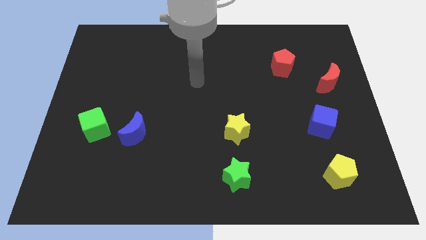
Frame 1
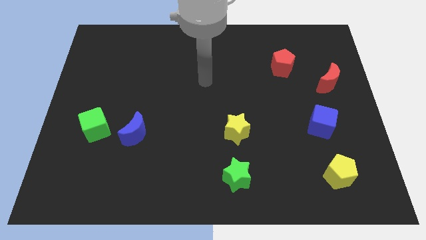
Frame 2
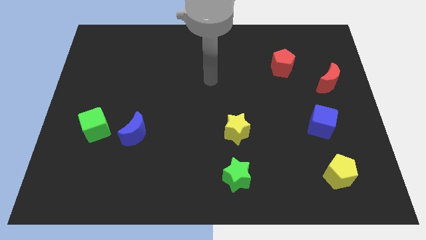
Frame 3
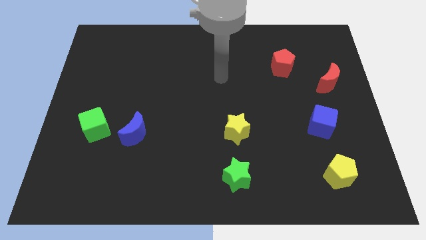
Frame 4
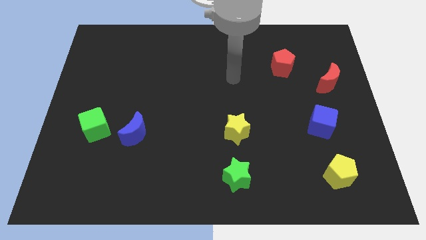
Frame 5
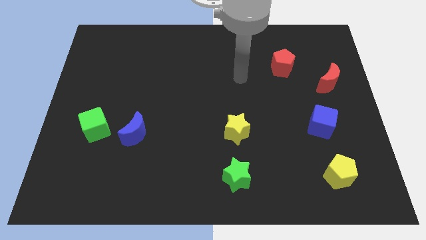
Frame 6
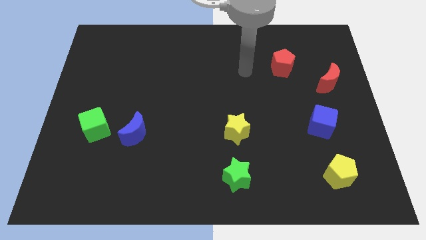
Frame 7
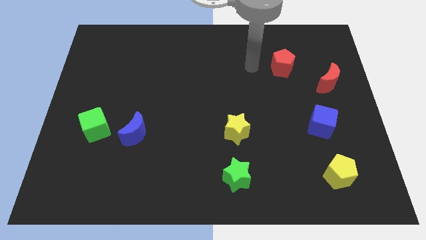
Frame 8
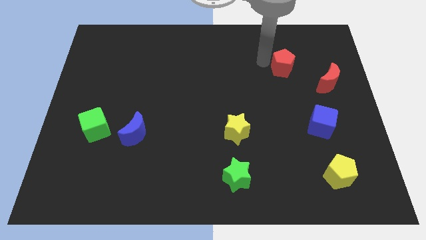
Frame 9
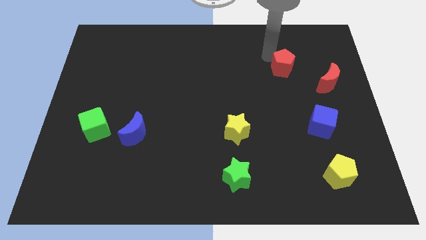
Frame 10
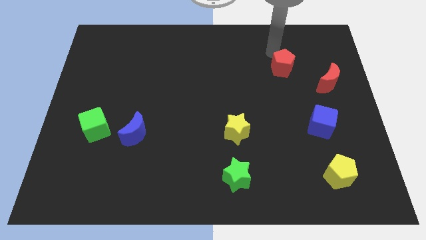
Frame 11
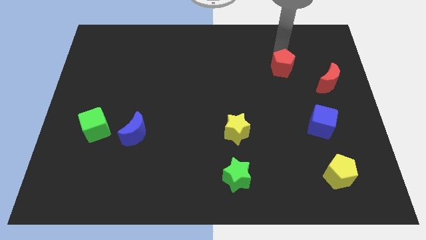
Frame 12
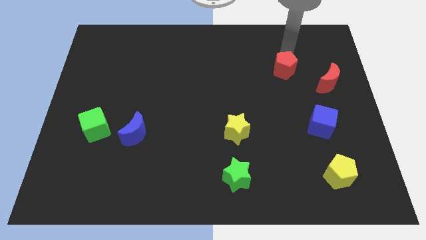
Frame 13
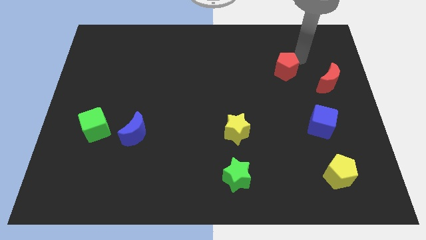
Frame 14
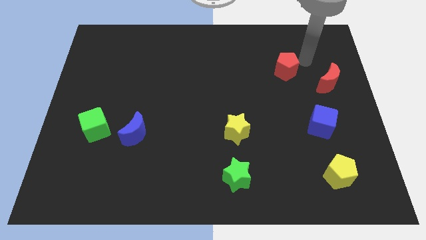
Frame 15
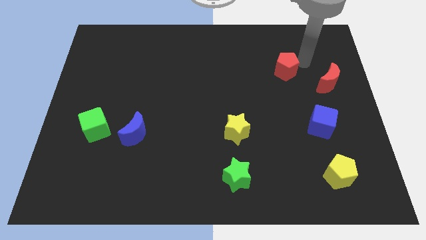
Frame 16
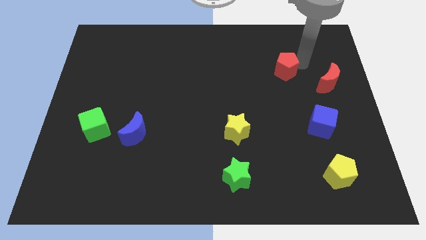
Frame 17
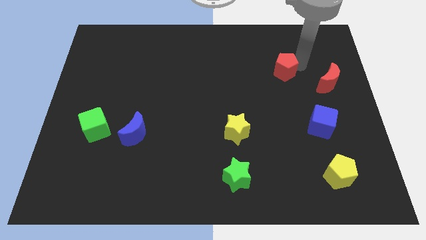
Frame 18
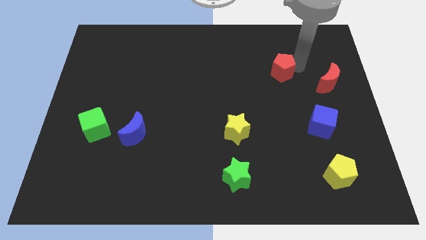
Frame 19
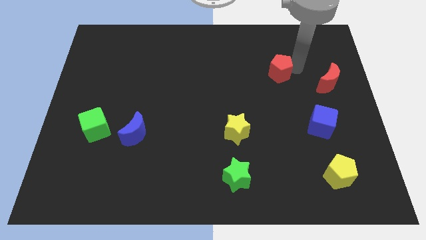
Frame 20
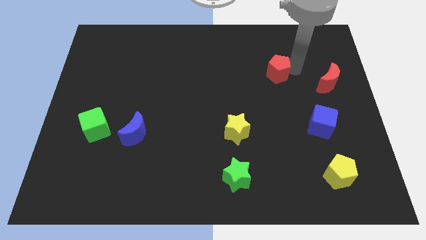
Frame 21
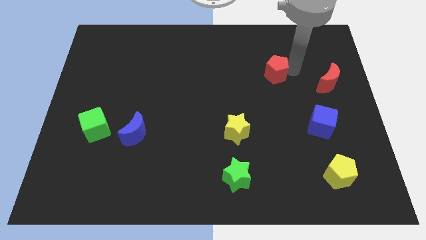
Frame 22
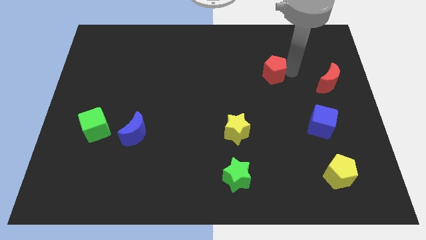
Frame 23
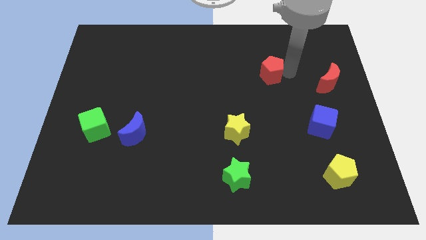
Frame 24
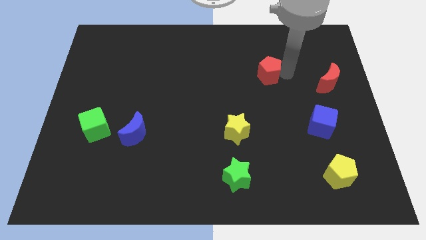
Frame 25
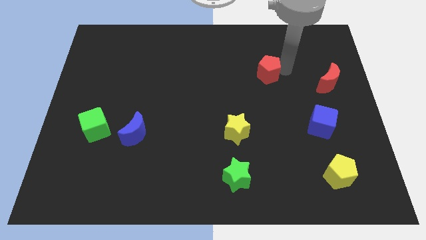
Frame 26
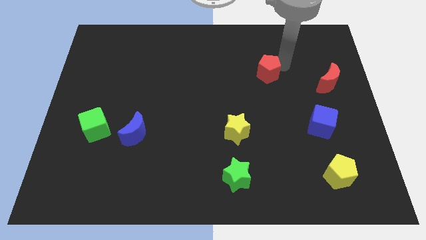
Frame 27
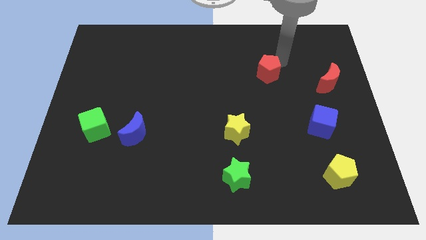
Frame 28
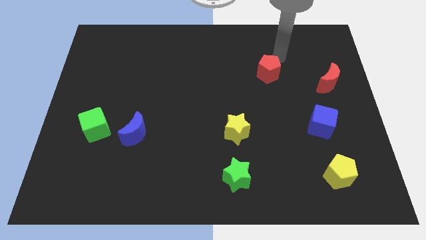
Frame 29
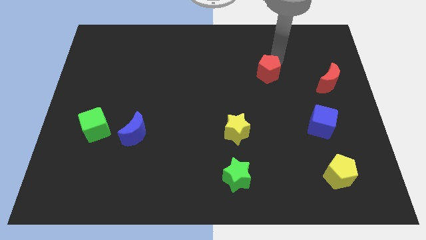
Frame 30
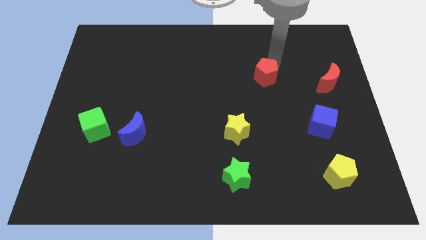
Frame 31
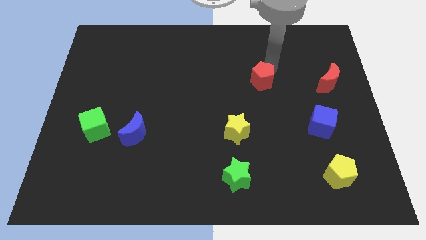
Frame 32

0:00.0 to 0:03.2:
move the red pentagon a little downwards and then to the left
